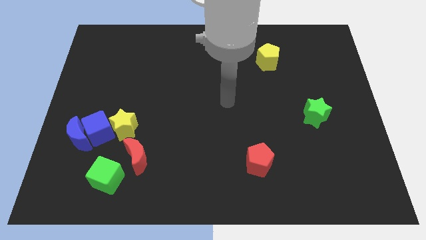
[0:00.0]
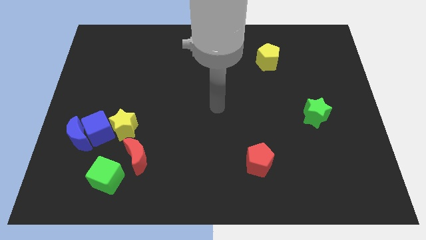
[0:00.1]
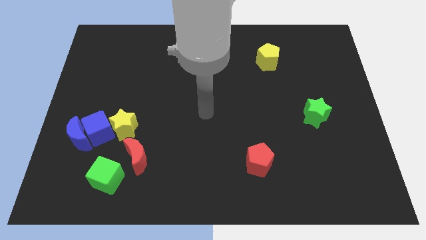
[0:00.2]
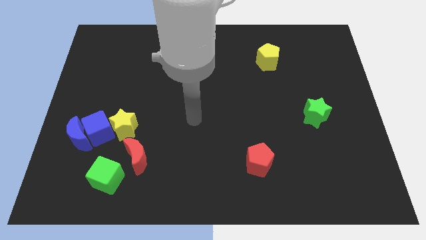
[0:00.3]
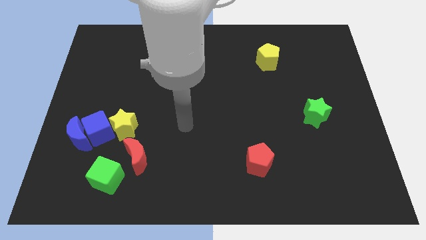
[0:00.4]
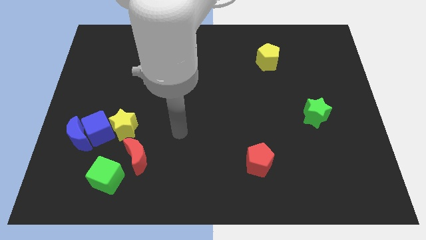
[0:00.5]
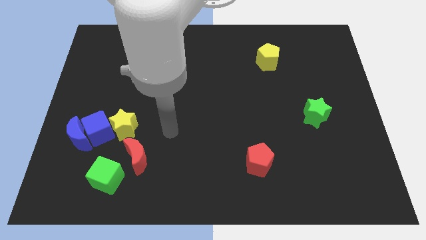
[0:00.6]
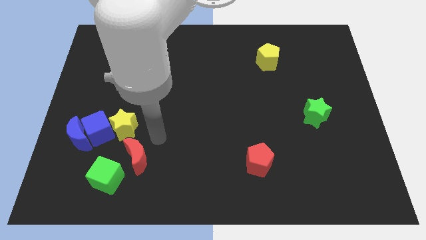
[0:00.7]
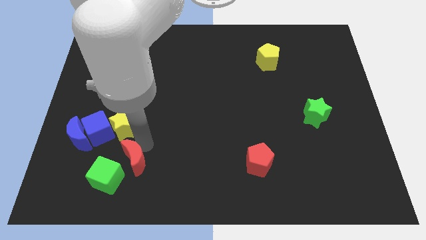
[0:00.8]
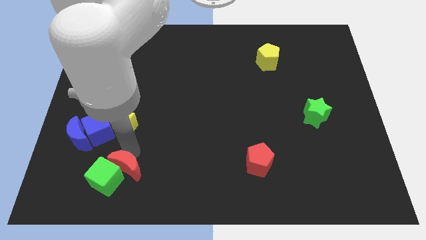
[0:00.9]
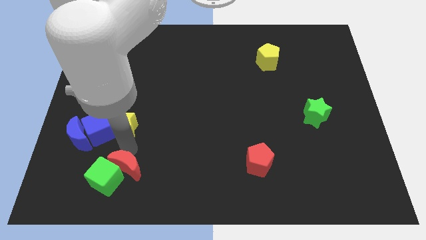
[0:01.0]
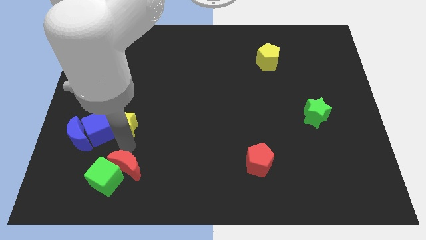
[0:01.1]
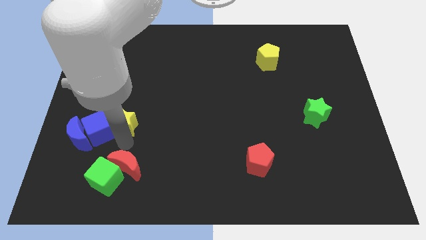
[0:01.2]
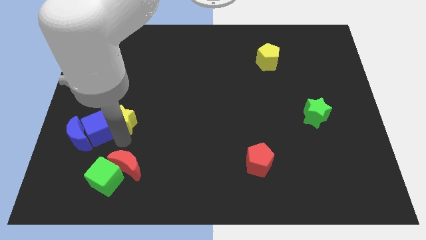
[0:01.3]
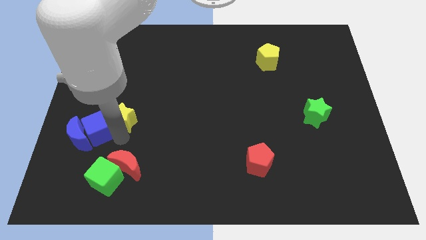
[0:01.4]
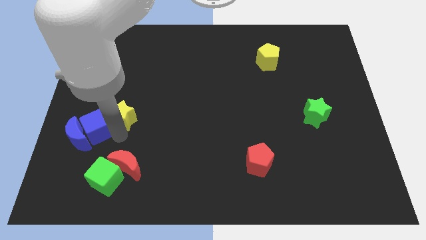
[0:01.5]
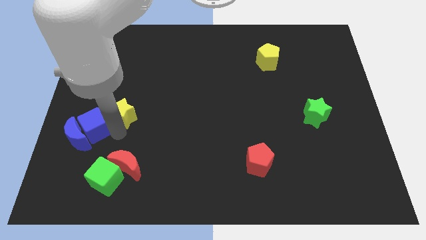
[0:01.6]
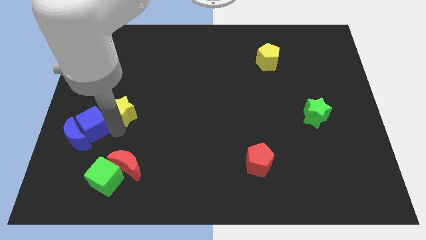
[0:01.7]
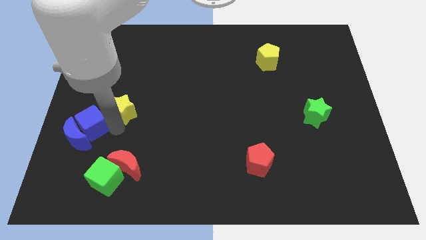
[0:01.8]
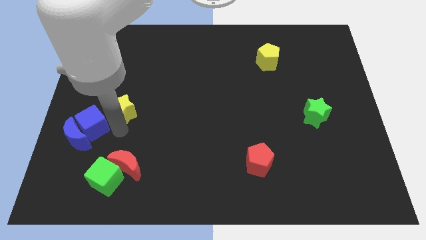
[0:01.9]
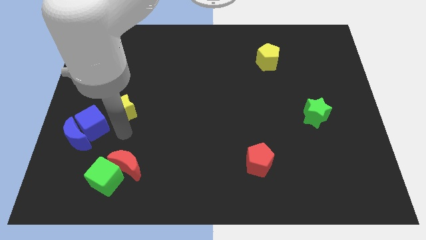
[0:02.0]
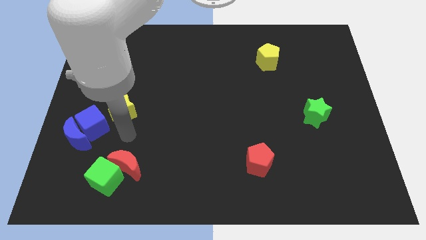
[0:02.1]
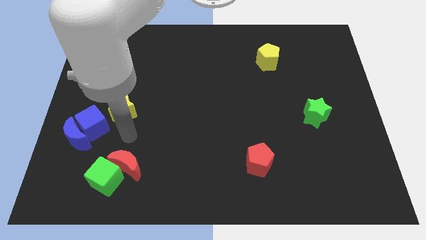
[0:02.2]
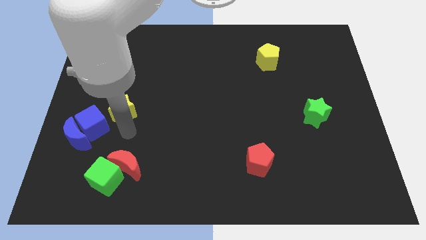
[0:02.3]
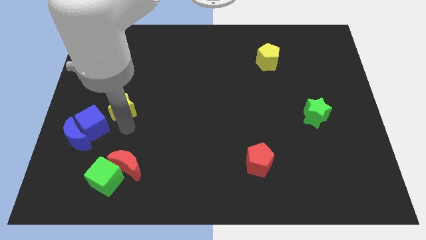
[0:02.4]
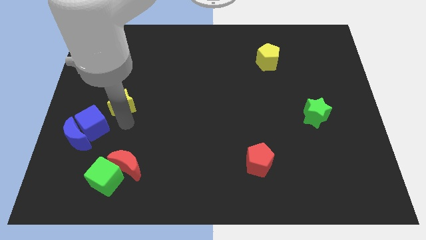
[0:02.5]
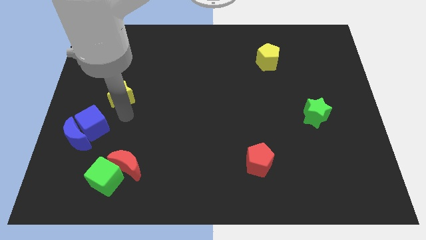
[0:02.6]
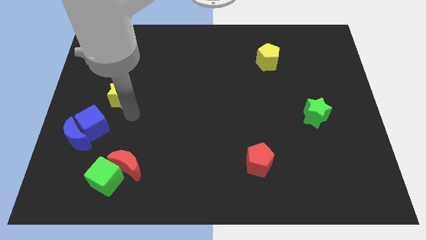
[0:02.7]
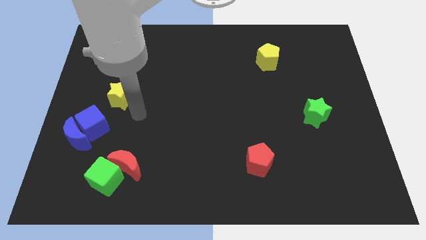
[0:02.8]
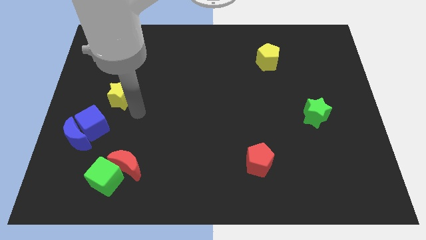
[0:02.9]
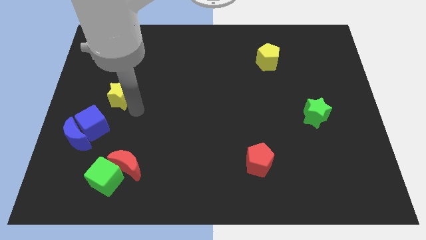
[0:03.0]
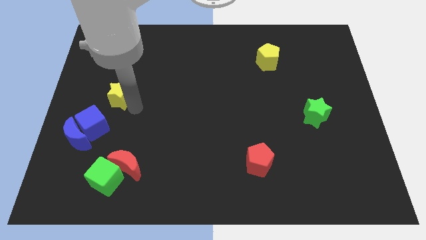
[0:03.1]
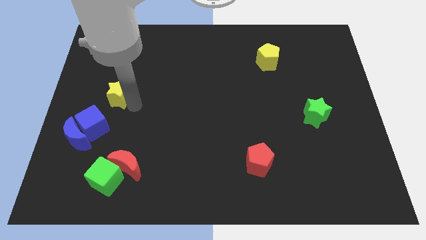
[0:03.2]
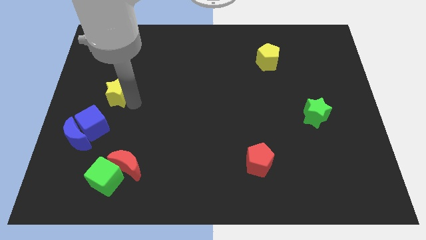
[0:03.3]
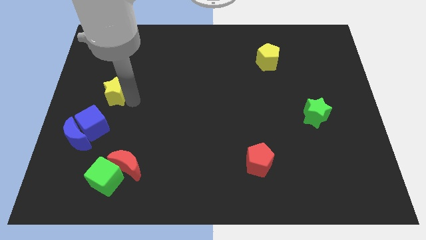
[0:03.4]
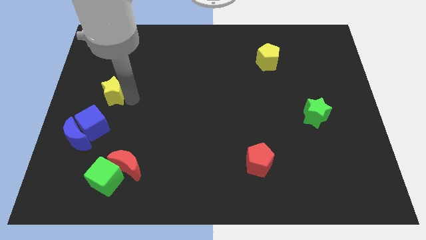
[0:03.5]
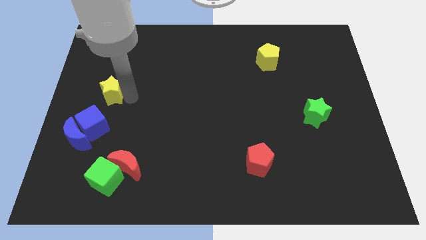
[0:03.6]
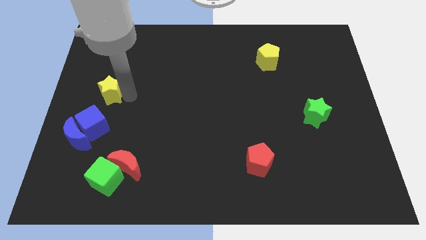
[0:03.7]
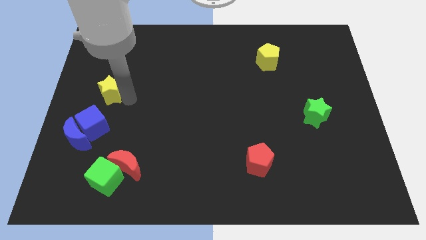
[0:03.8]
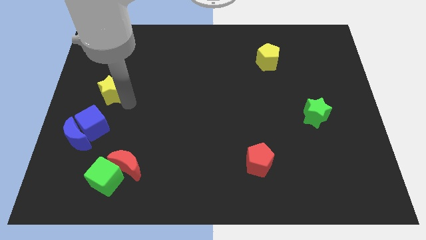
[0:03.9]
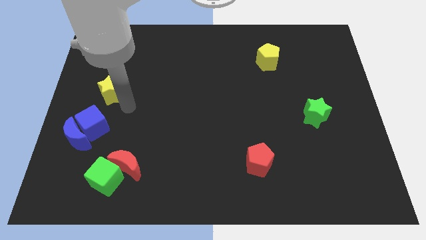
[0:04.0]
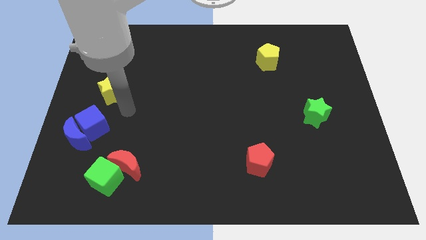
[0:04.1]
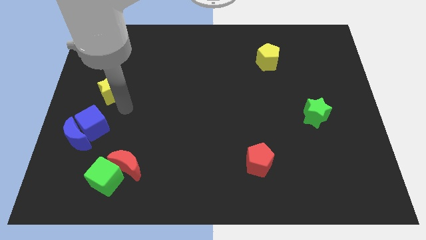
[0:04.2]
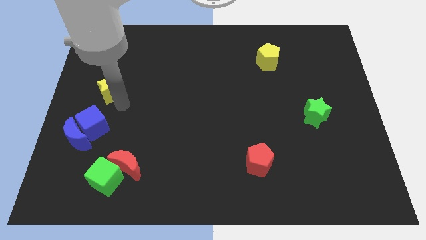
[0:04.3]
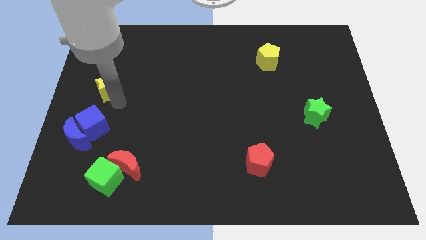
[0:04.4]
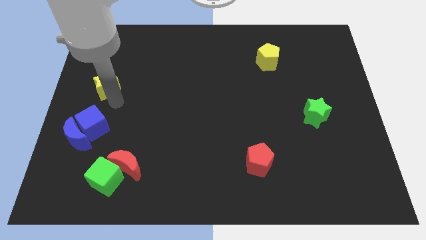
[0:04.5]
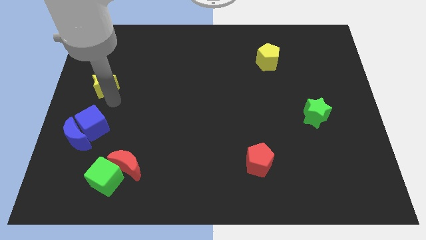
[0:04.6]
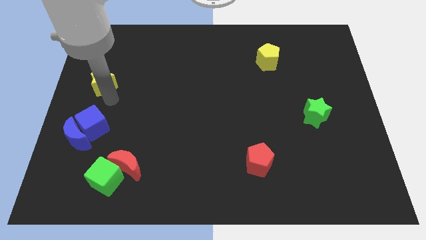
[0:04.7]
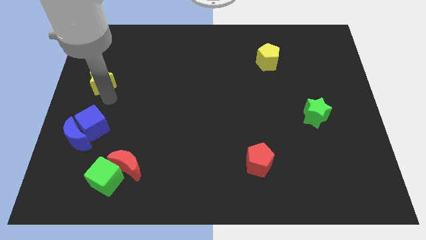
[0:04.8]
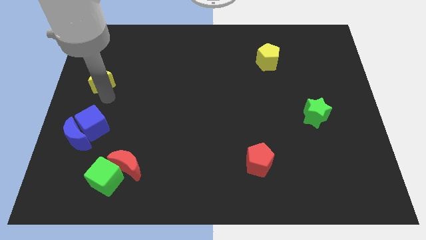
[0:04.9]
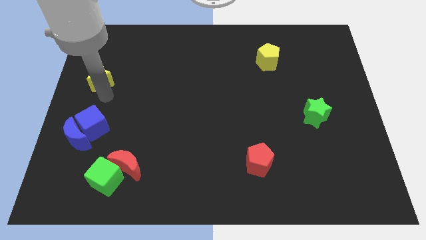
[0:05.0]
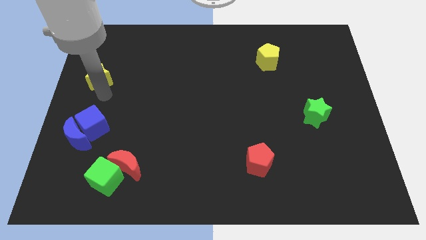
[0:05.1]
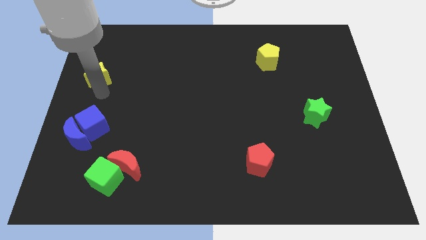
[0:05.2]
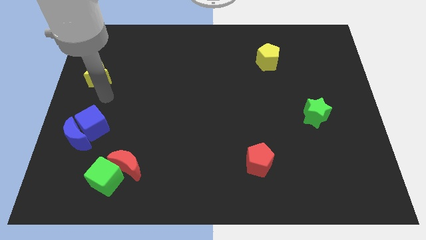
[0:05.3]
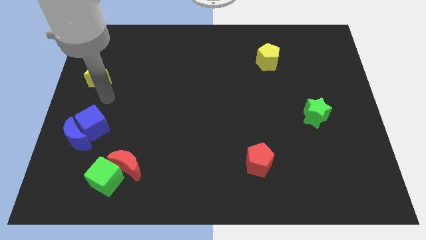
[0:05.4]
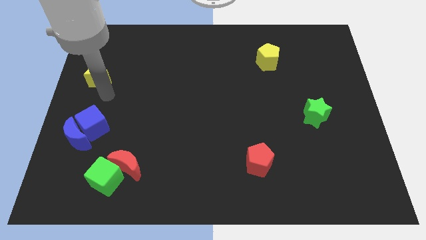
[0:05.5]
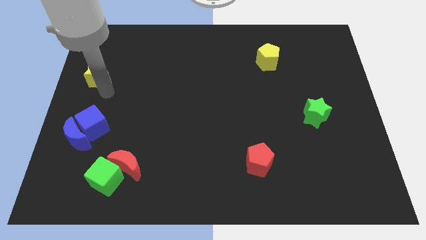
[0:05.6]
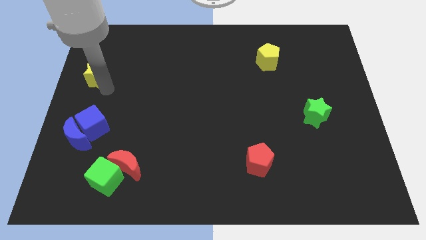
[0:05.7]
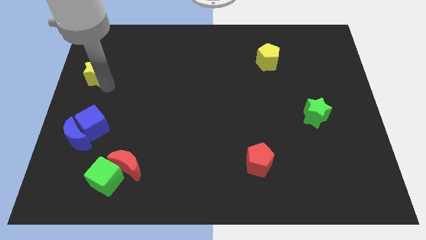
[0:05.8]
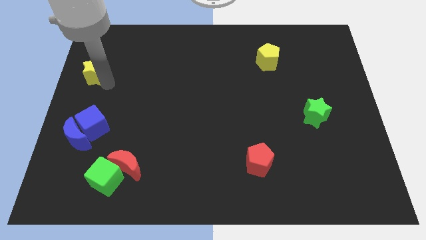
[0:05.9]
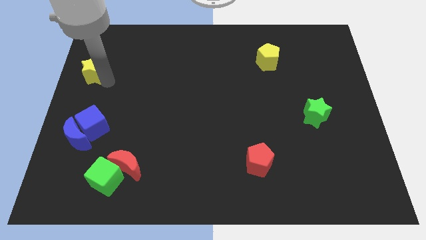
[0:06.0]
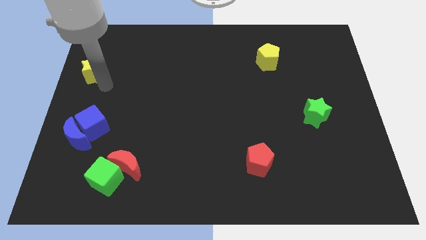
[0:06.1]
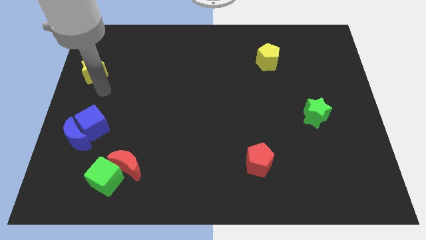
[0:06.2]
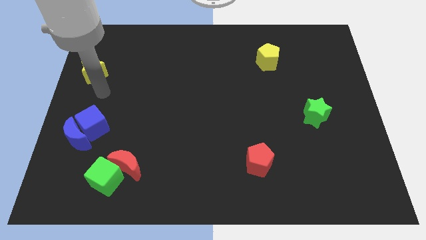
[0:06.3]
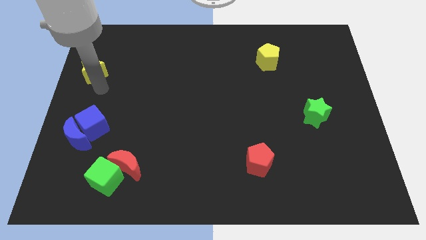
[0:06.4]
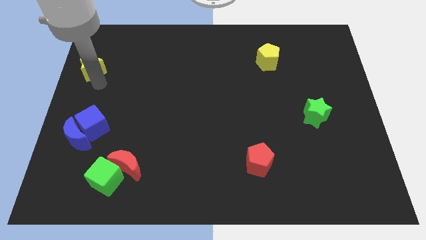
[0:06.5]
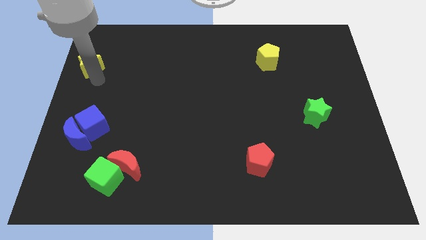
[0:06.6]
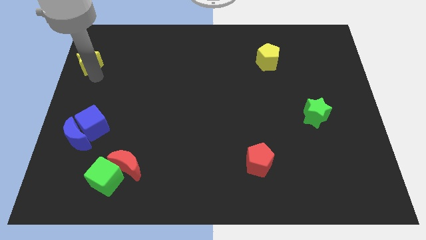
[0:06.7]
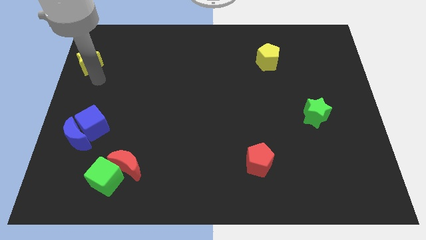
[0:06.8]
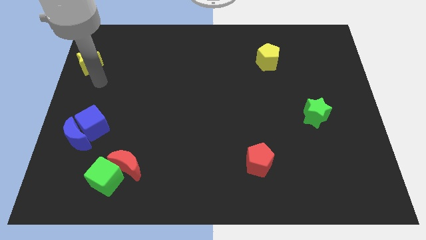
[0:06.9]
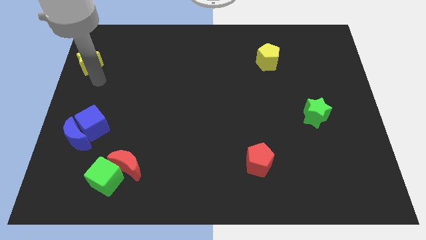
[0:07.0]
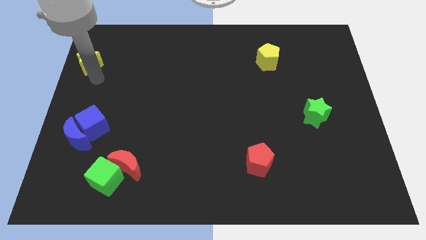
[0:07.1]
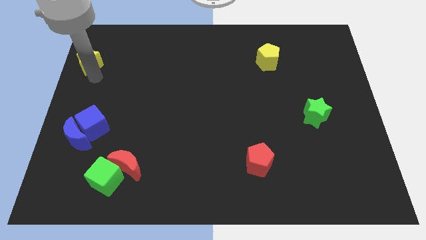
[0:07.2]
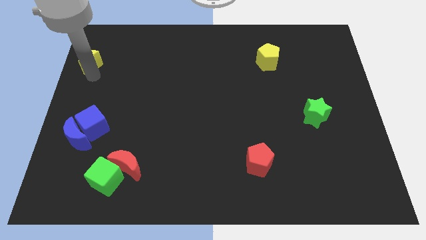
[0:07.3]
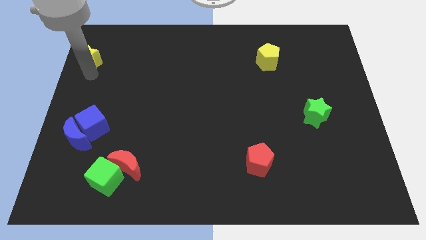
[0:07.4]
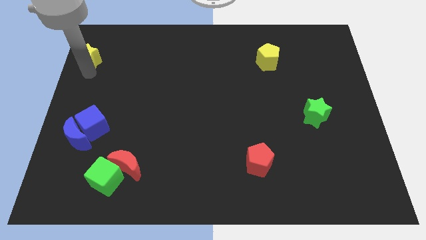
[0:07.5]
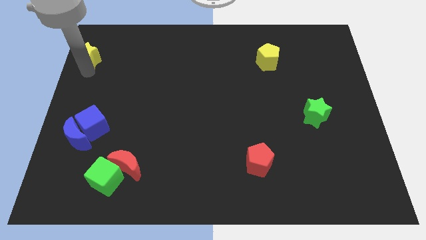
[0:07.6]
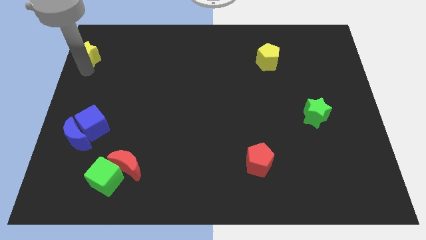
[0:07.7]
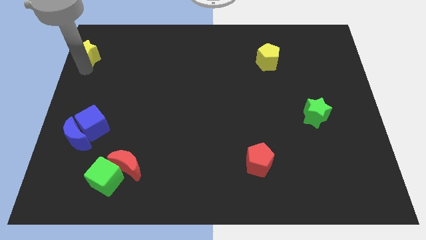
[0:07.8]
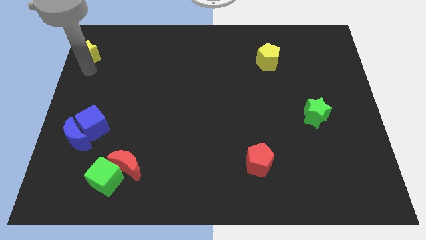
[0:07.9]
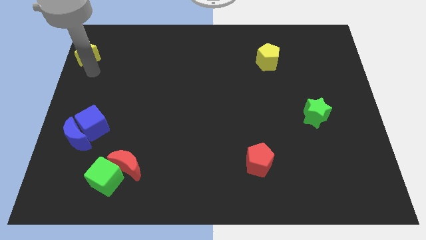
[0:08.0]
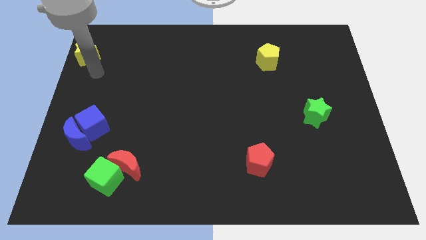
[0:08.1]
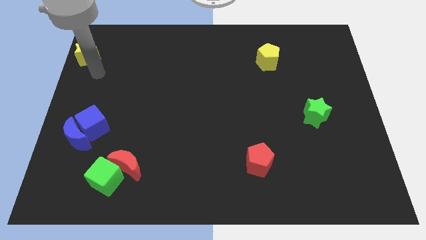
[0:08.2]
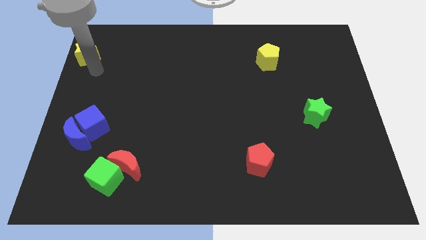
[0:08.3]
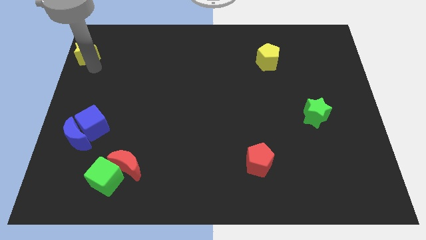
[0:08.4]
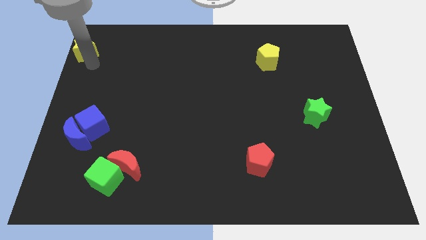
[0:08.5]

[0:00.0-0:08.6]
put the yellow star to the top left
